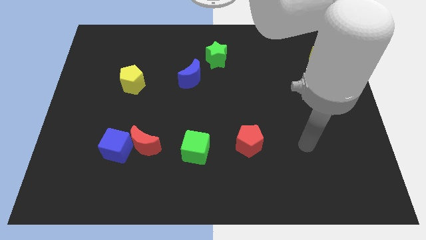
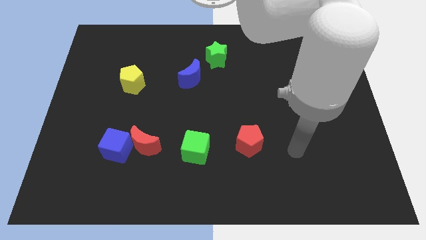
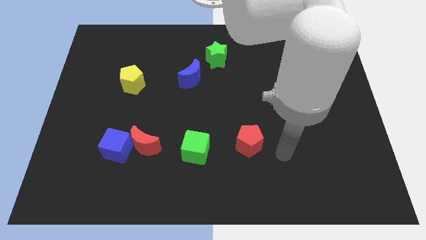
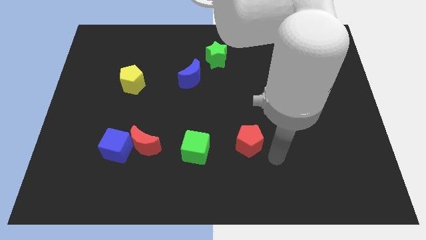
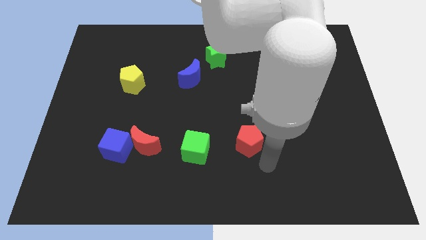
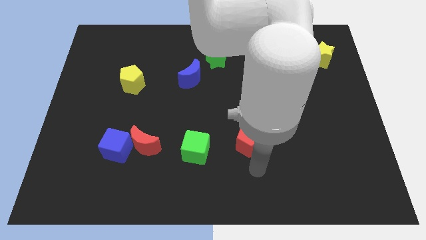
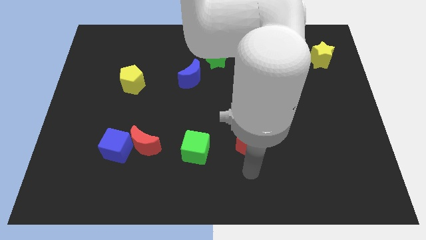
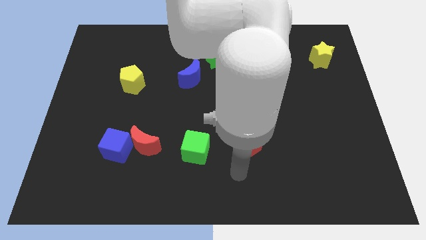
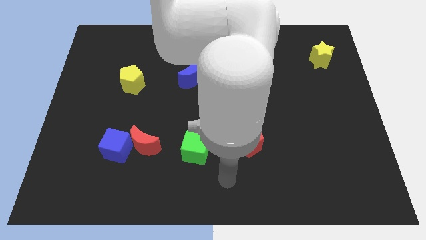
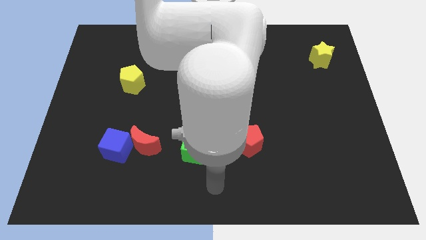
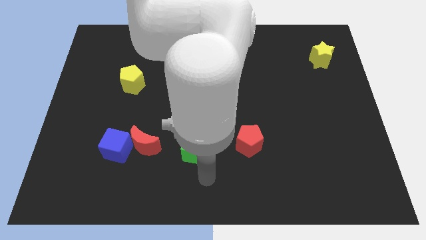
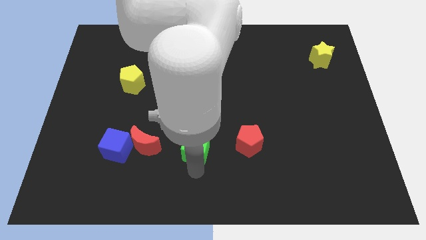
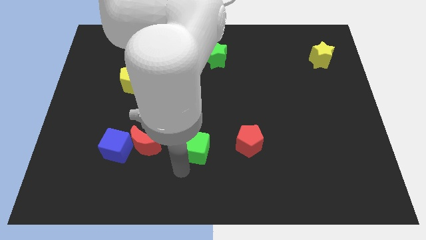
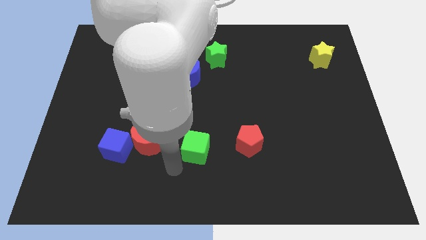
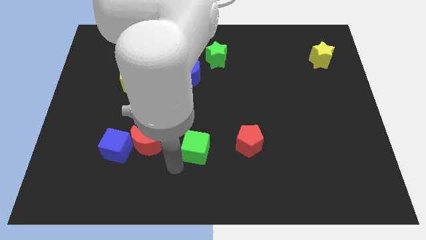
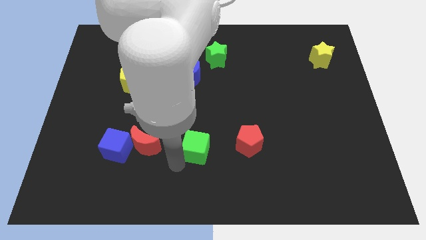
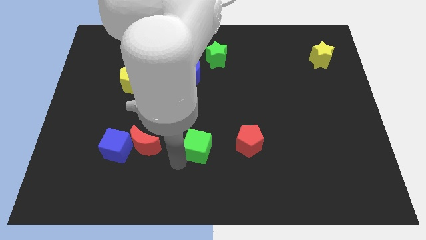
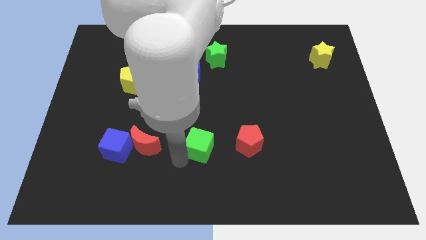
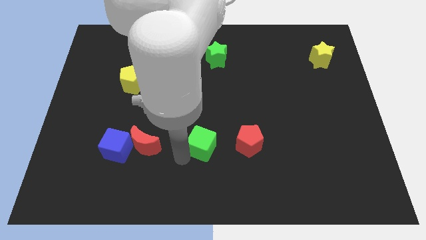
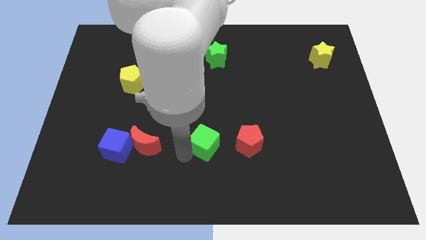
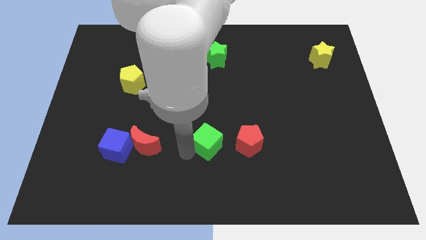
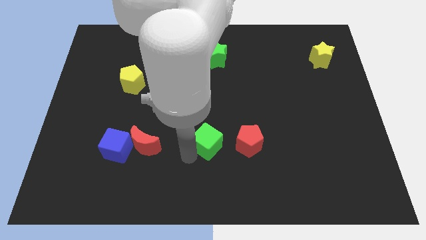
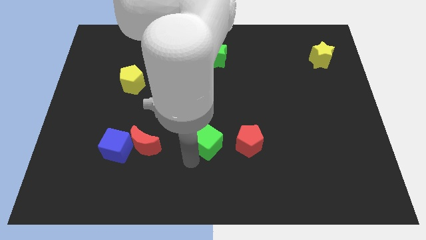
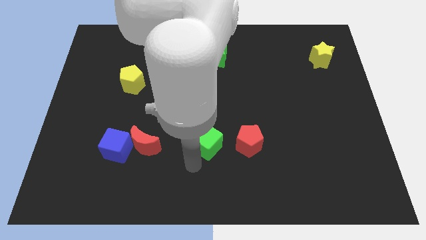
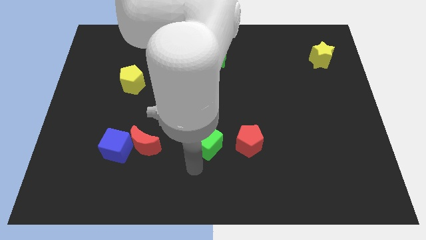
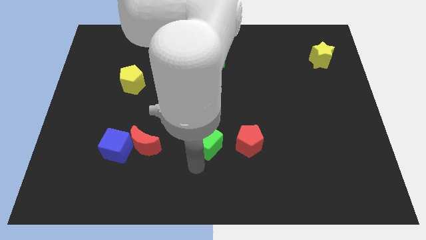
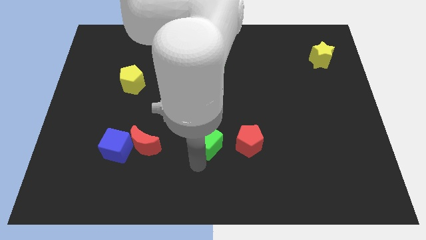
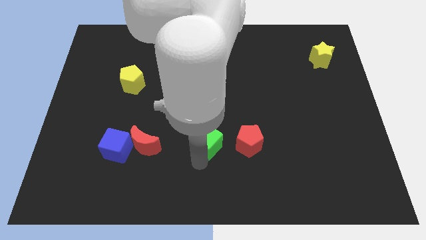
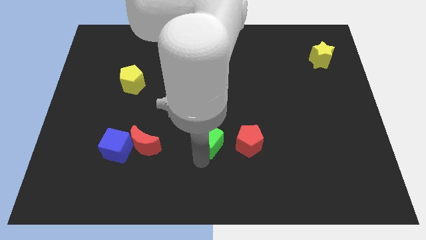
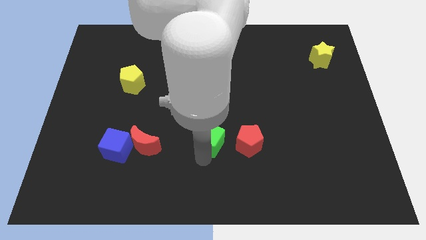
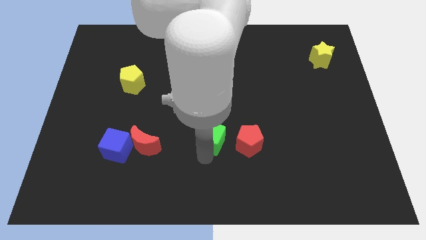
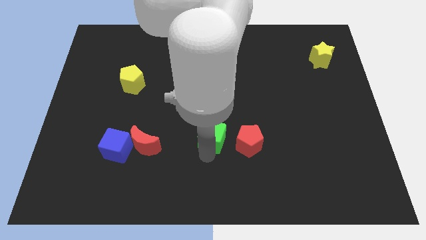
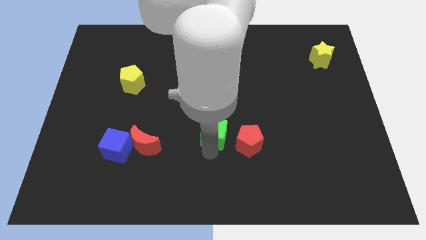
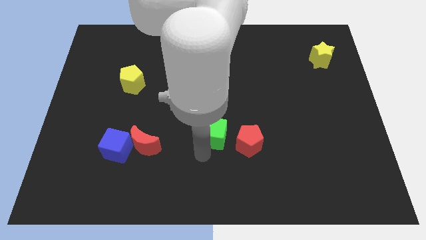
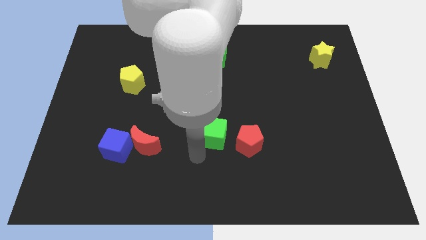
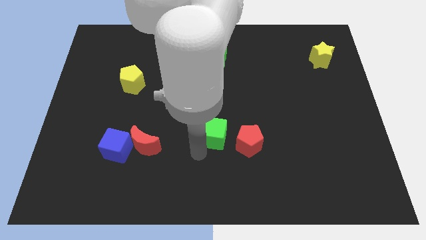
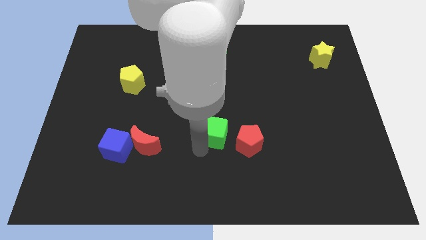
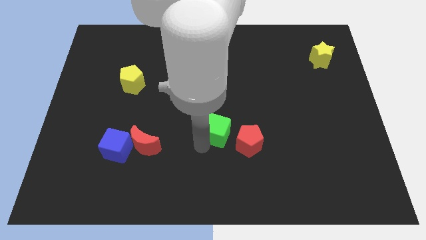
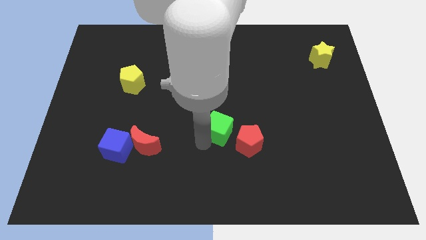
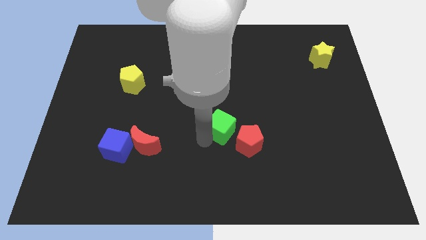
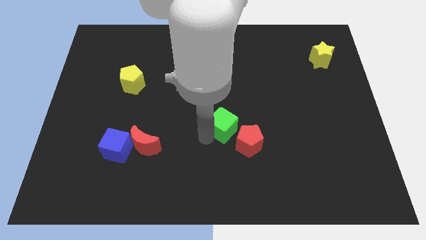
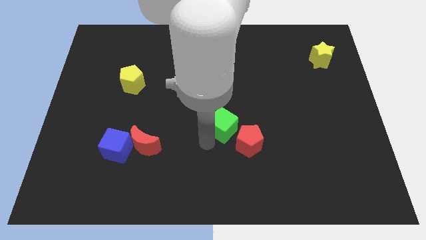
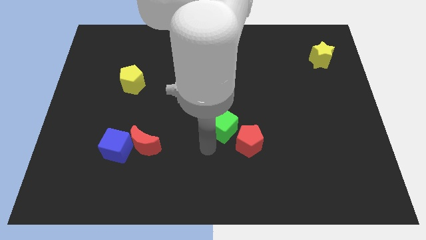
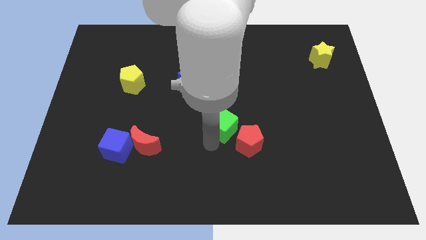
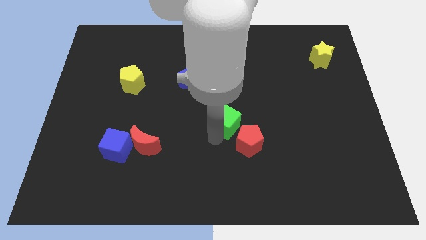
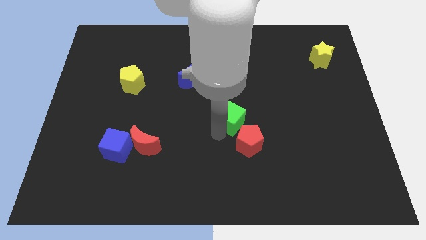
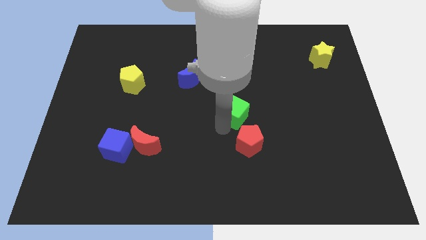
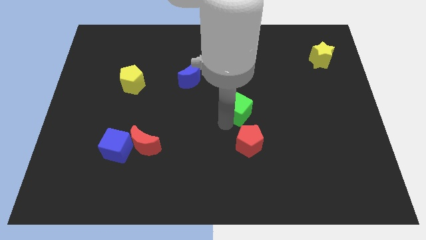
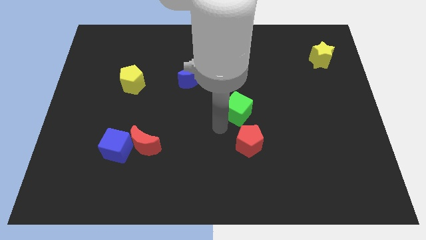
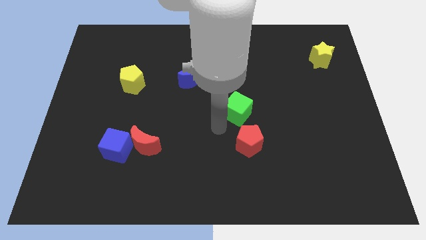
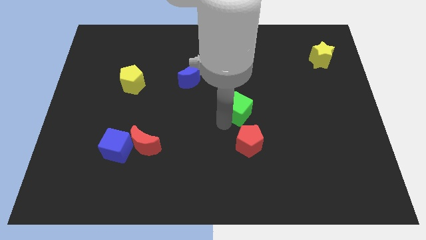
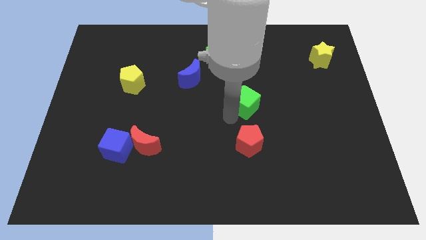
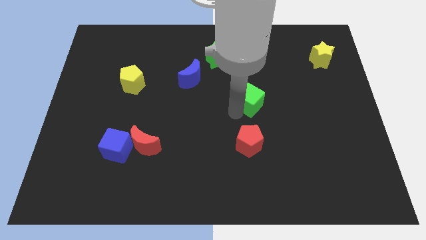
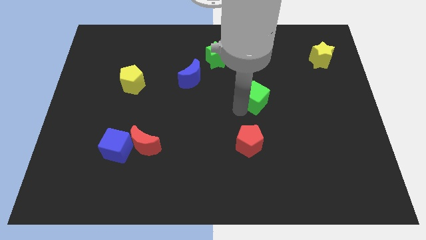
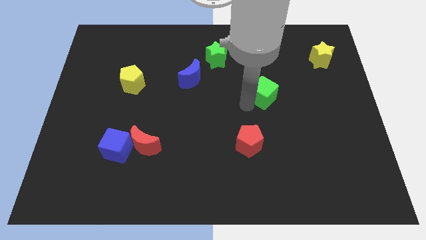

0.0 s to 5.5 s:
move the green cube up and then to the right

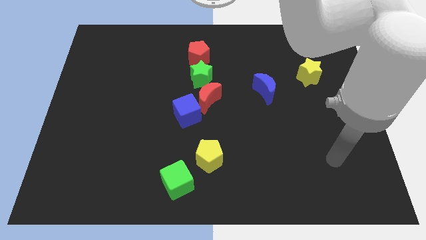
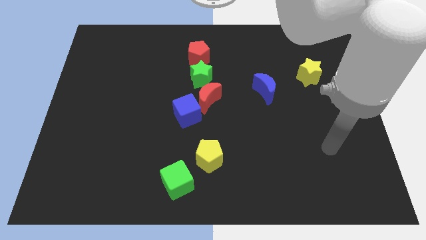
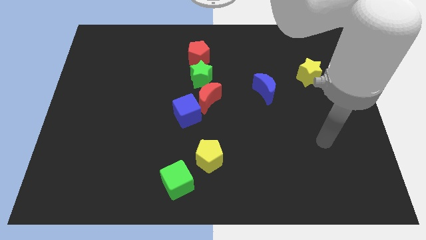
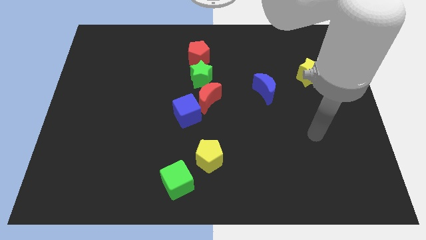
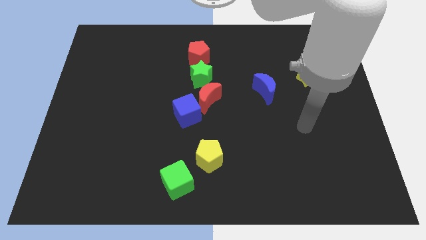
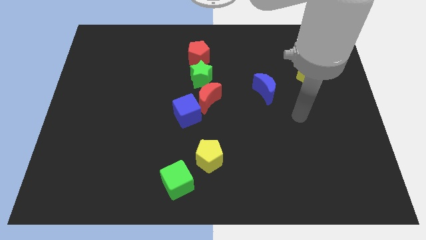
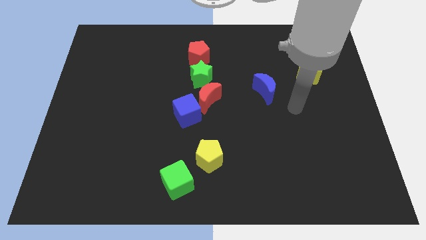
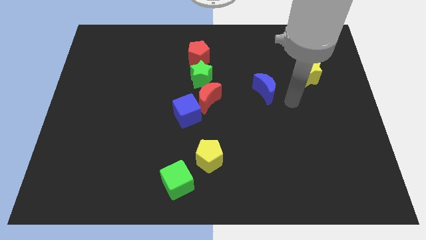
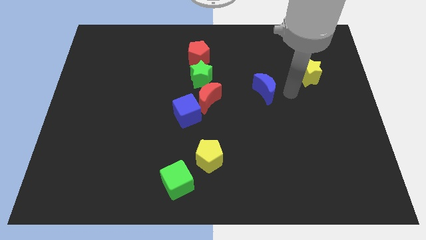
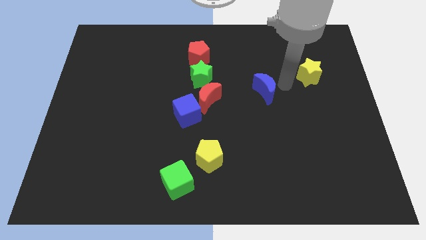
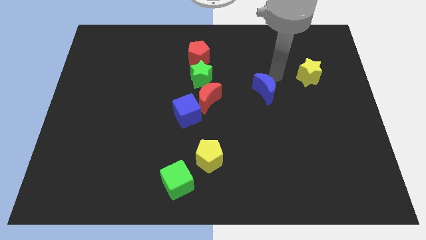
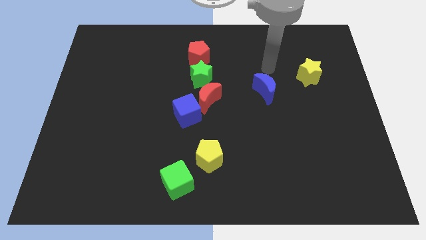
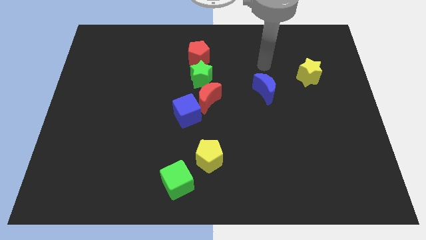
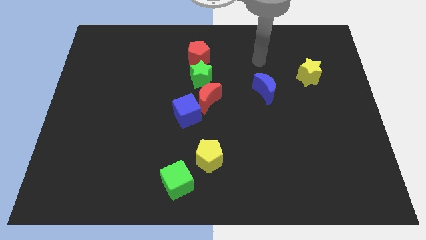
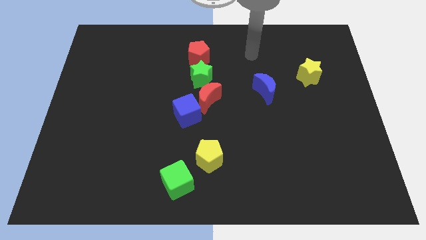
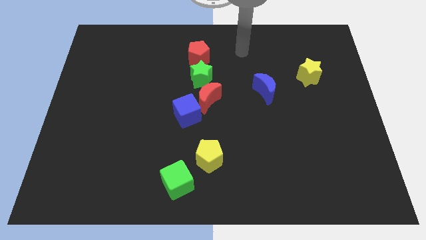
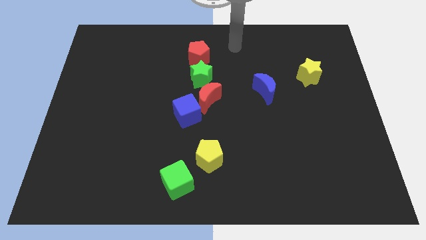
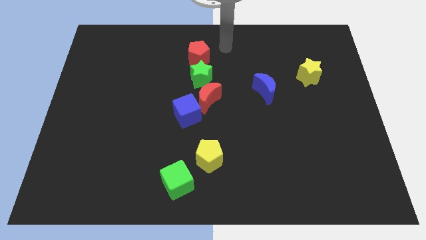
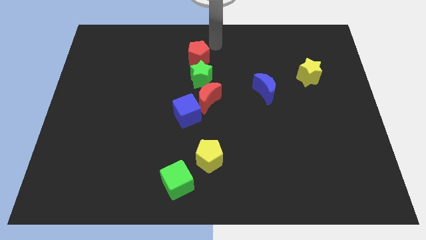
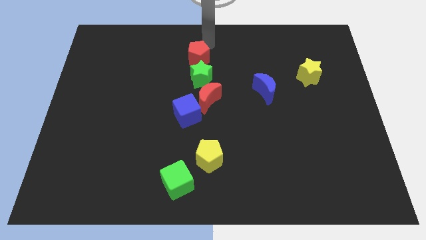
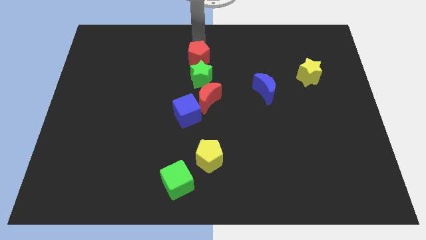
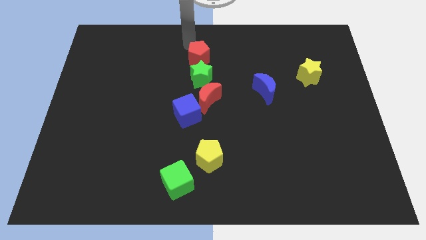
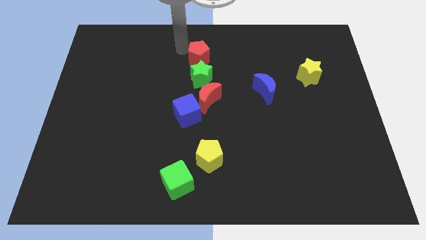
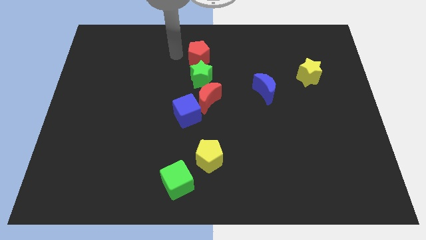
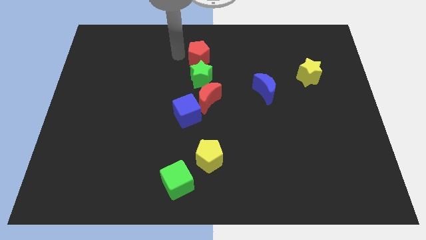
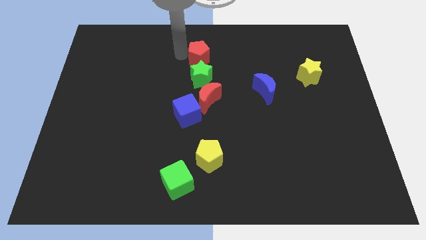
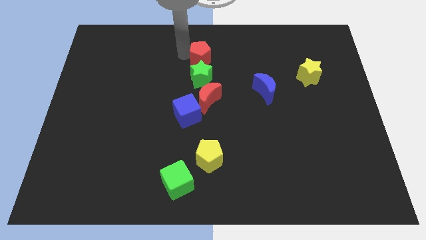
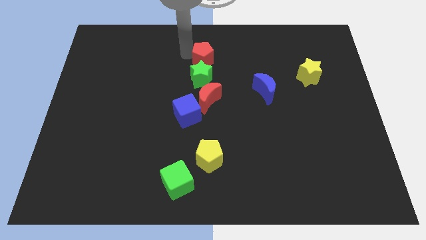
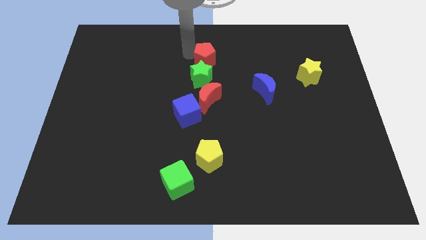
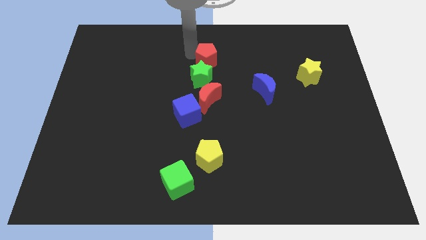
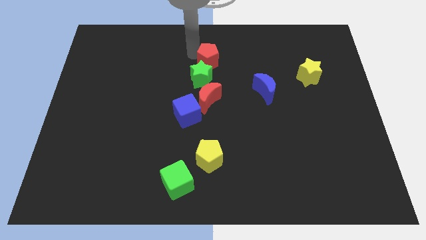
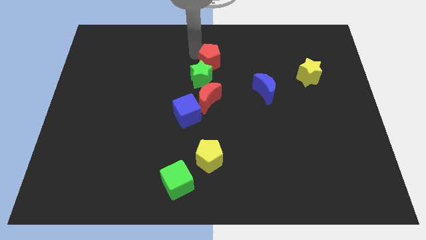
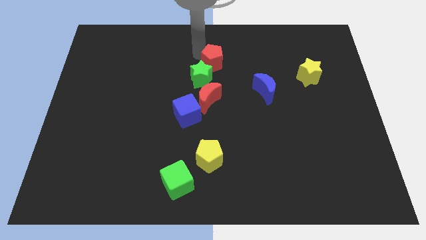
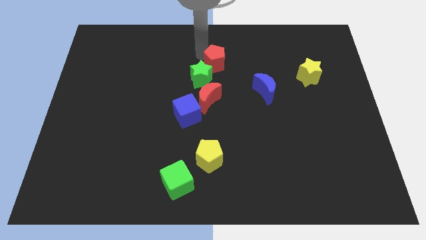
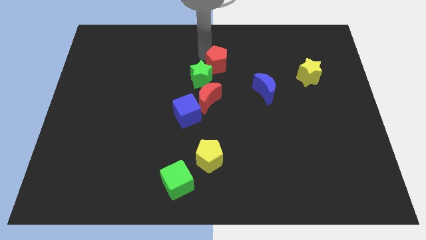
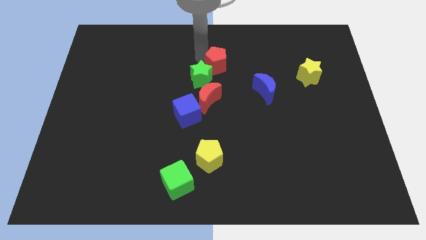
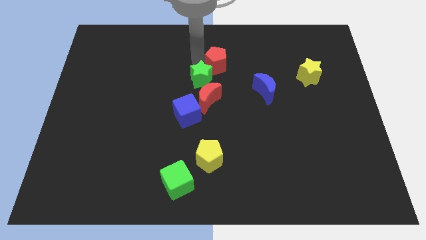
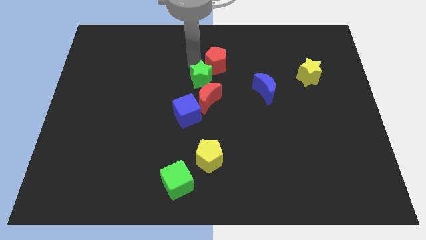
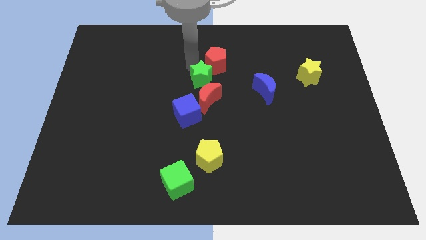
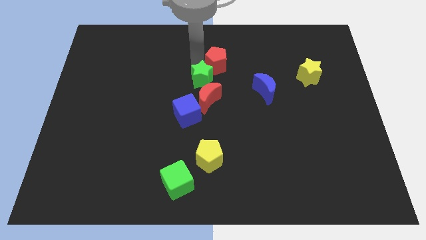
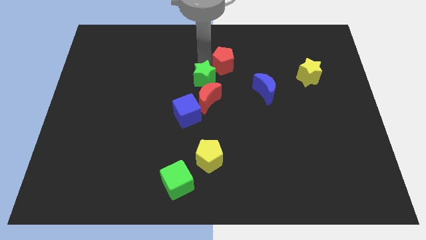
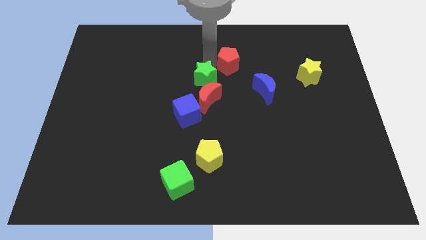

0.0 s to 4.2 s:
push the red pentagon right somewhat
